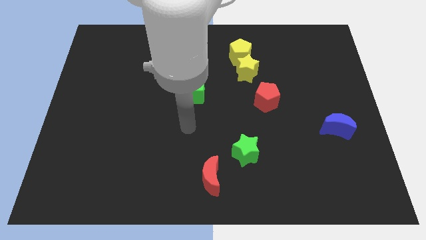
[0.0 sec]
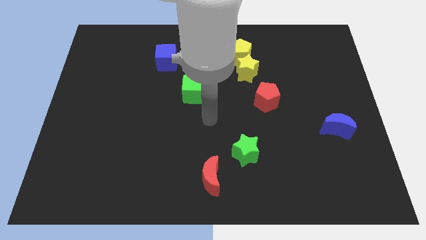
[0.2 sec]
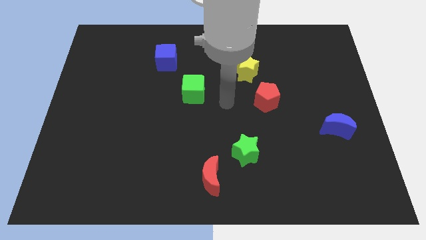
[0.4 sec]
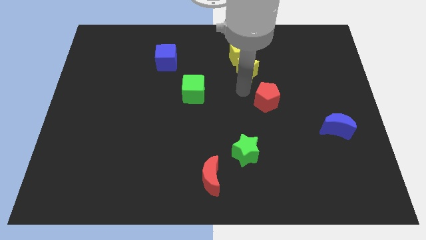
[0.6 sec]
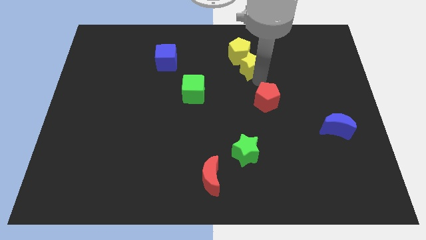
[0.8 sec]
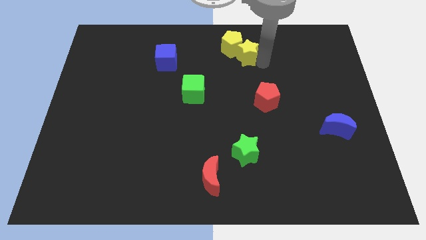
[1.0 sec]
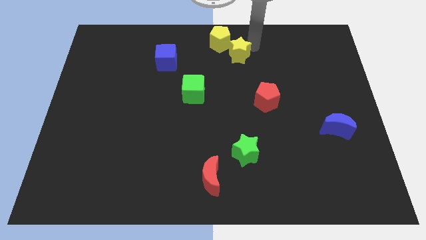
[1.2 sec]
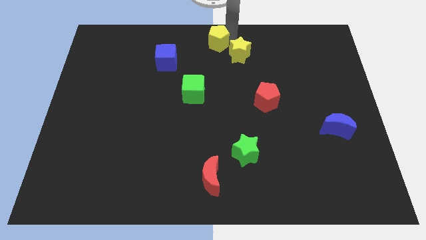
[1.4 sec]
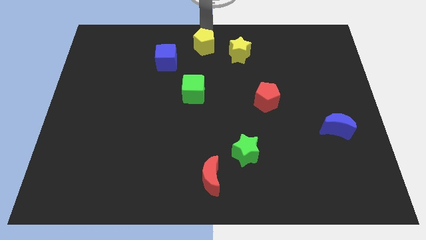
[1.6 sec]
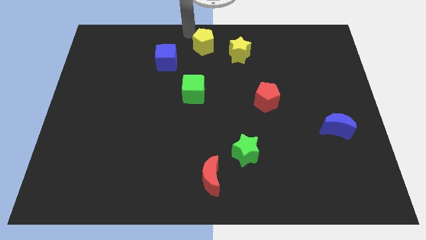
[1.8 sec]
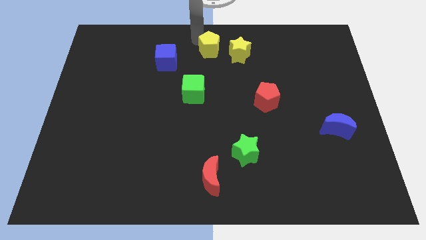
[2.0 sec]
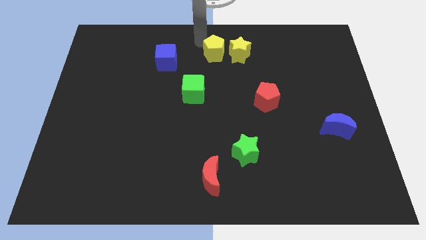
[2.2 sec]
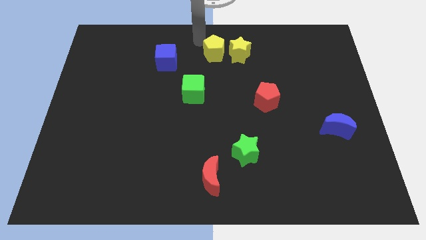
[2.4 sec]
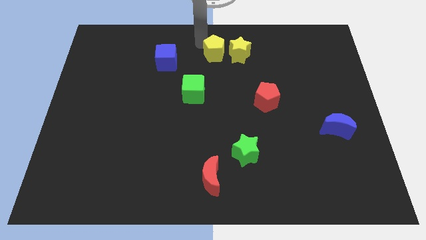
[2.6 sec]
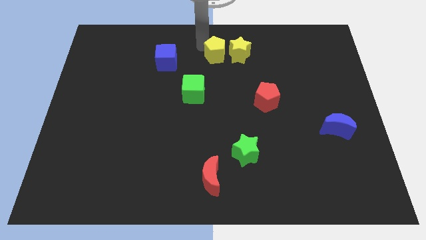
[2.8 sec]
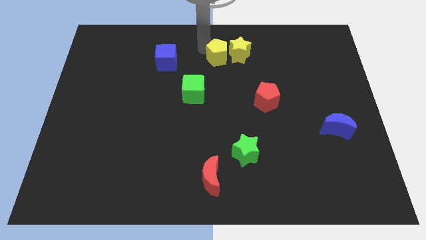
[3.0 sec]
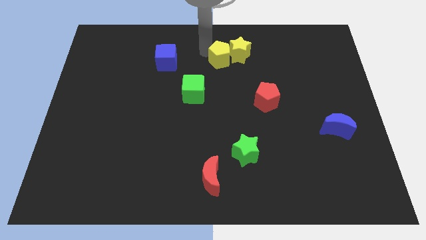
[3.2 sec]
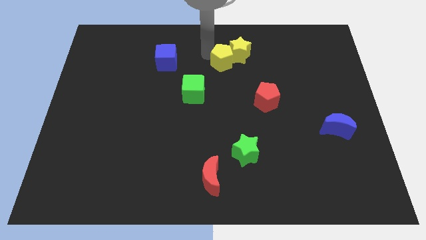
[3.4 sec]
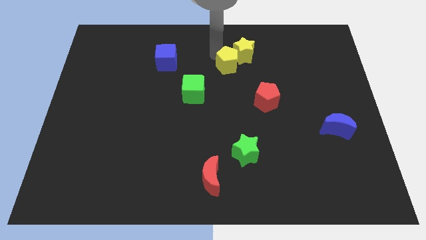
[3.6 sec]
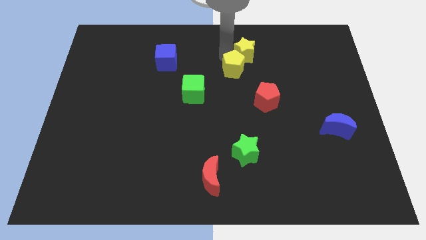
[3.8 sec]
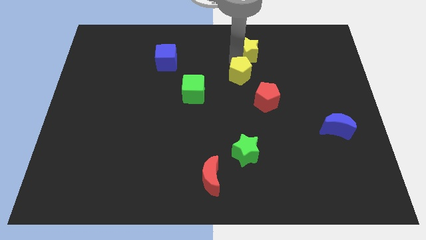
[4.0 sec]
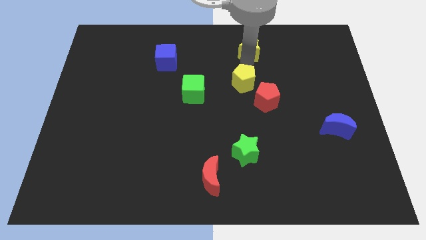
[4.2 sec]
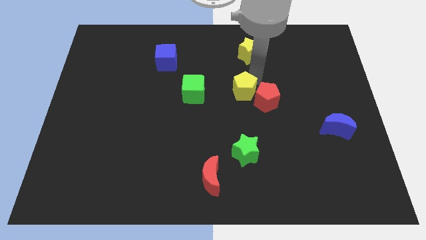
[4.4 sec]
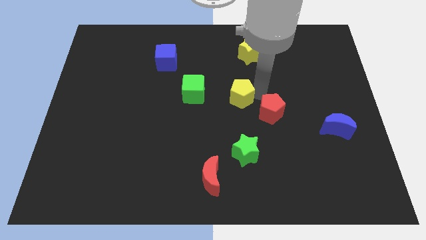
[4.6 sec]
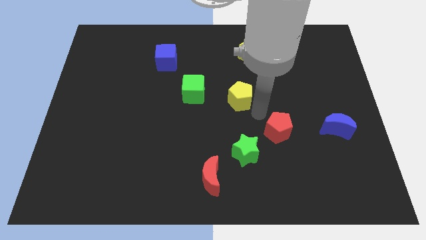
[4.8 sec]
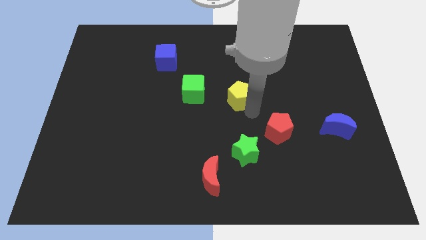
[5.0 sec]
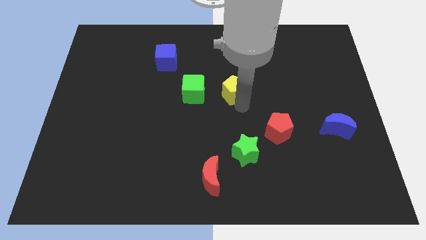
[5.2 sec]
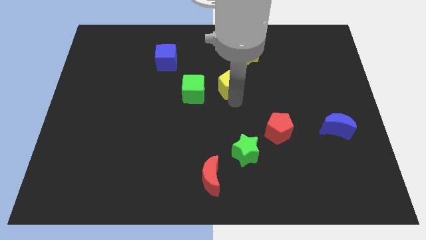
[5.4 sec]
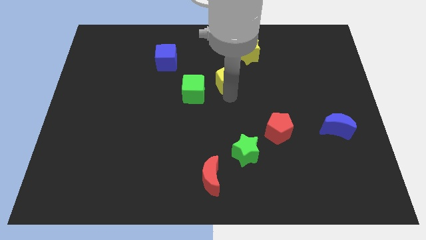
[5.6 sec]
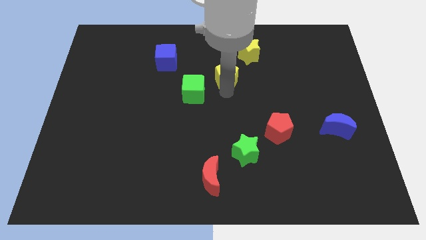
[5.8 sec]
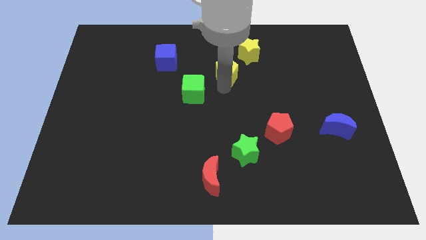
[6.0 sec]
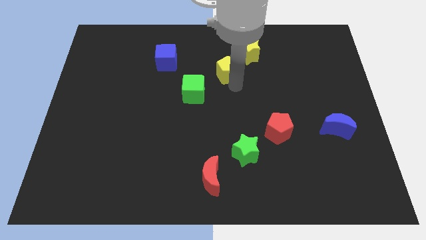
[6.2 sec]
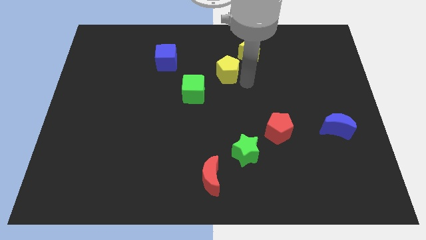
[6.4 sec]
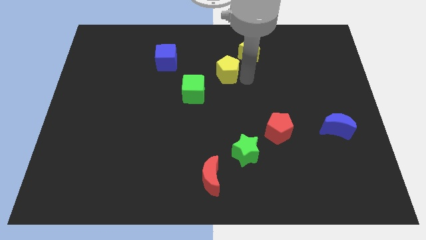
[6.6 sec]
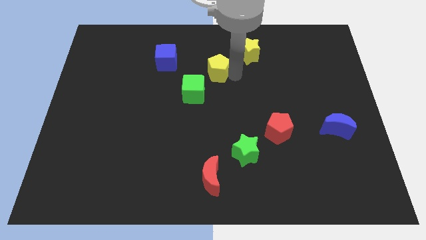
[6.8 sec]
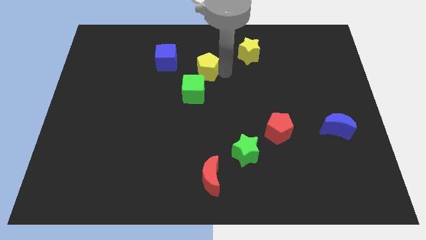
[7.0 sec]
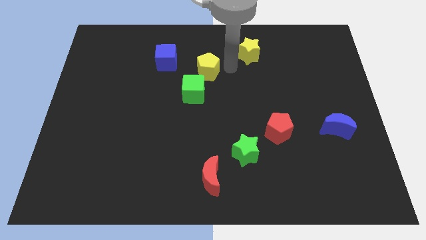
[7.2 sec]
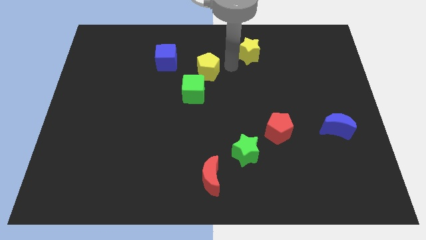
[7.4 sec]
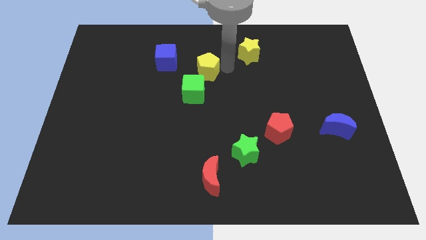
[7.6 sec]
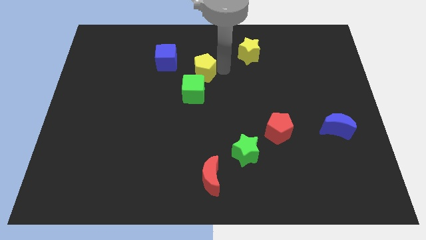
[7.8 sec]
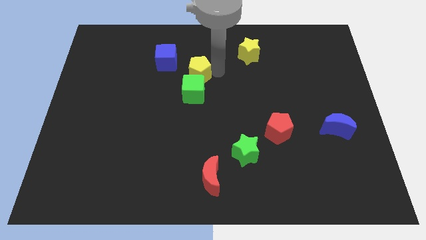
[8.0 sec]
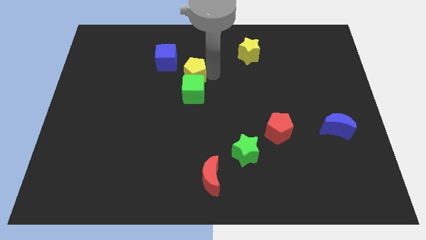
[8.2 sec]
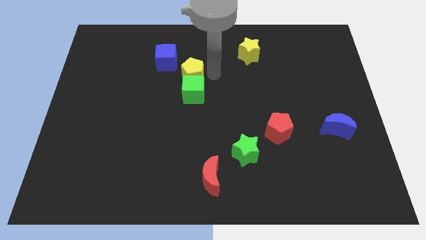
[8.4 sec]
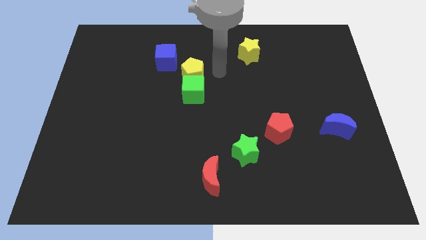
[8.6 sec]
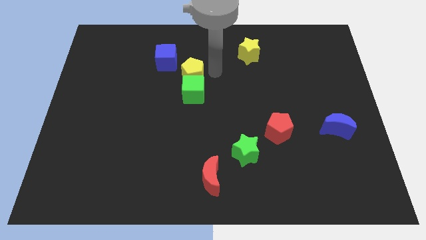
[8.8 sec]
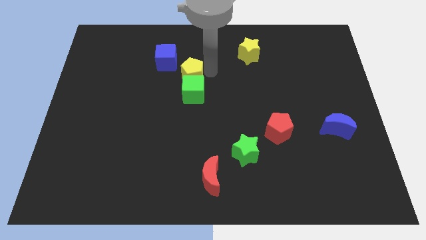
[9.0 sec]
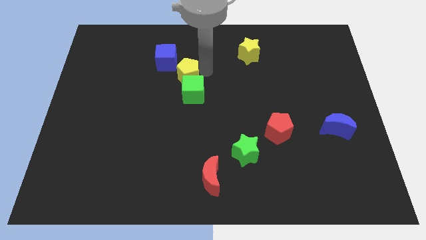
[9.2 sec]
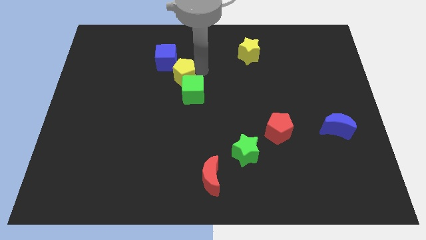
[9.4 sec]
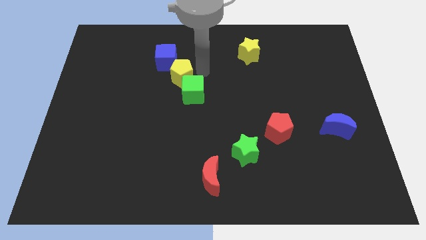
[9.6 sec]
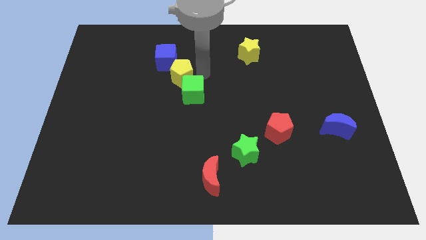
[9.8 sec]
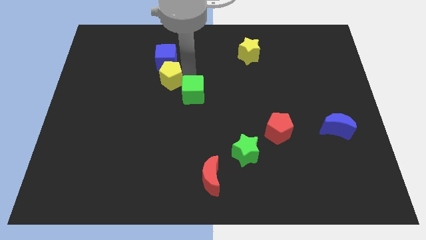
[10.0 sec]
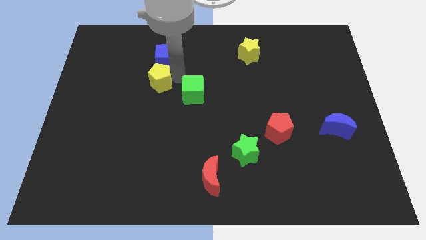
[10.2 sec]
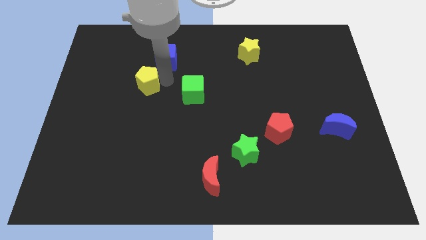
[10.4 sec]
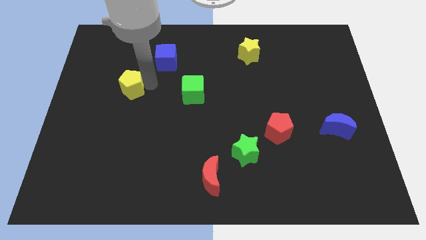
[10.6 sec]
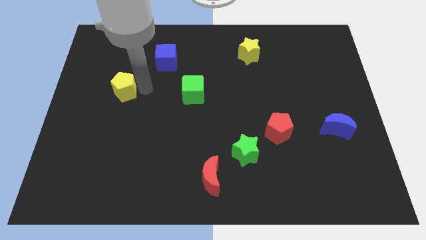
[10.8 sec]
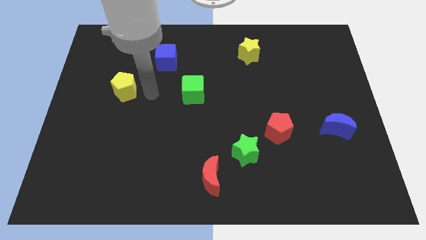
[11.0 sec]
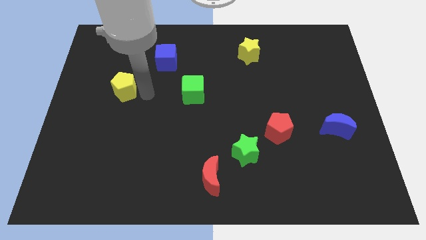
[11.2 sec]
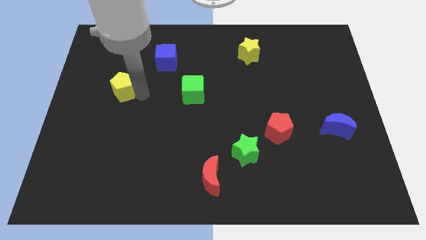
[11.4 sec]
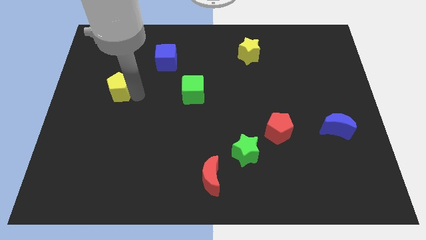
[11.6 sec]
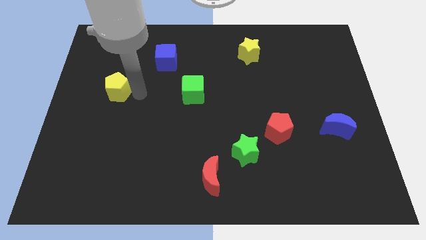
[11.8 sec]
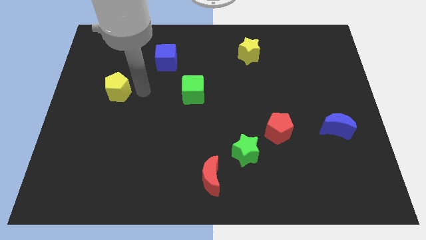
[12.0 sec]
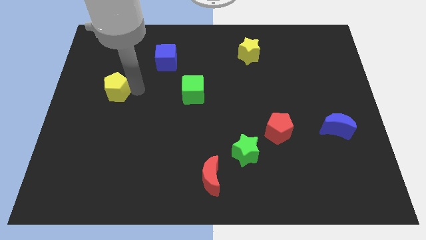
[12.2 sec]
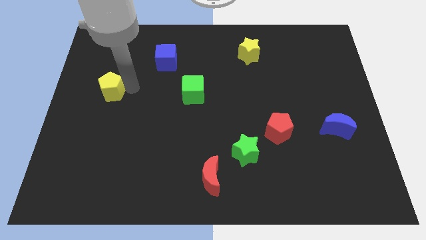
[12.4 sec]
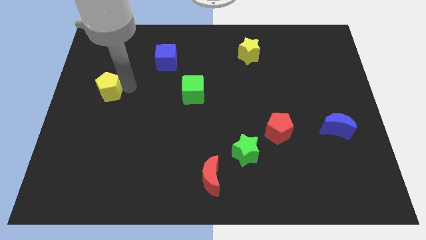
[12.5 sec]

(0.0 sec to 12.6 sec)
slide the yellow pentagon to the center left

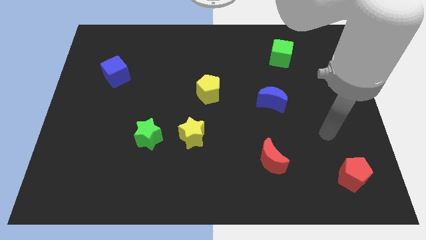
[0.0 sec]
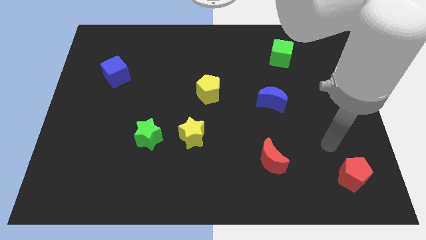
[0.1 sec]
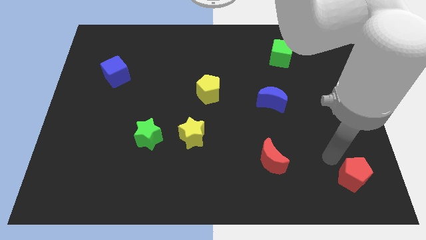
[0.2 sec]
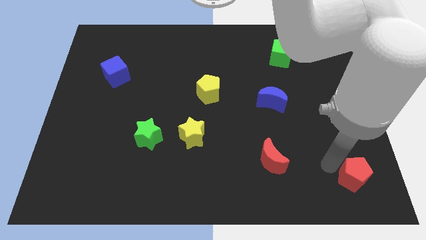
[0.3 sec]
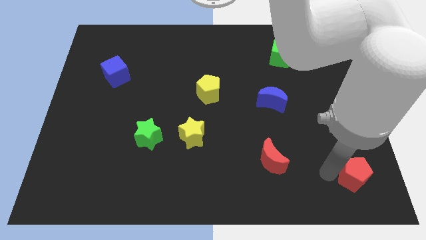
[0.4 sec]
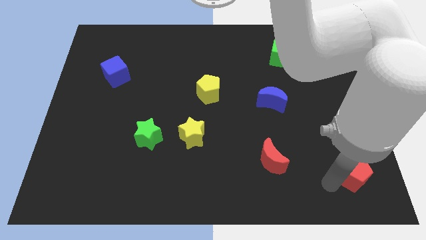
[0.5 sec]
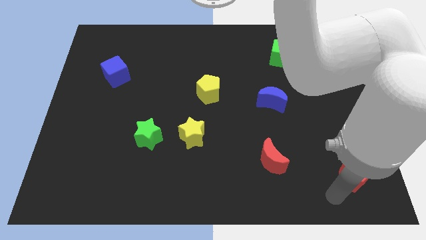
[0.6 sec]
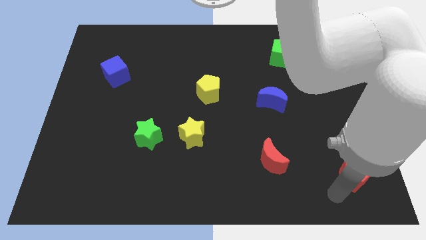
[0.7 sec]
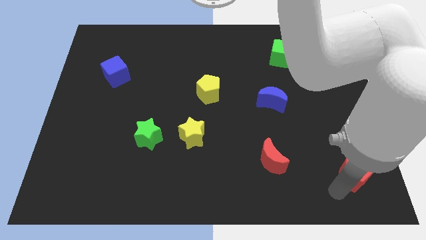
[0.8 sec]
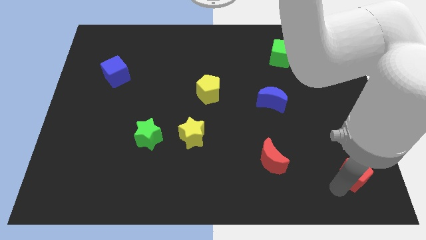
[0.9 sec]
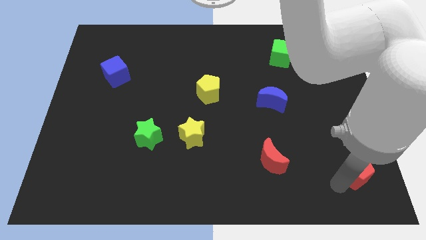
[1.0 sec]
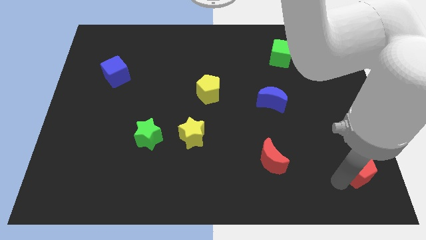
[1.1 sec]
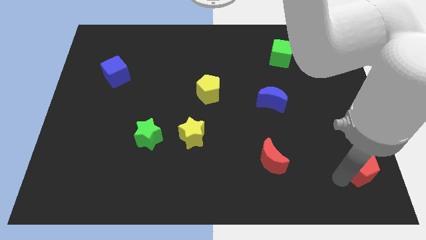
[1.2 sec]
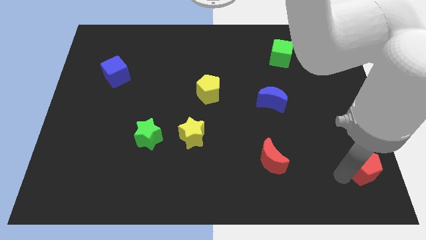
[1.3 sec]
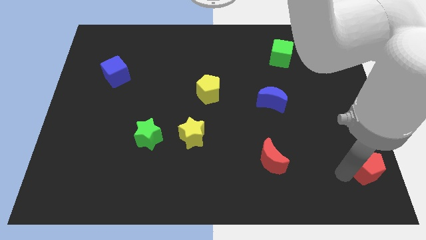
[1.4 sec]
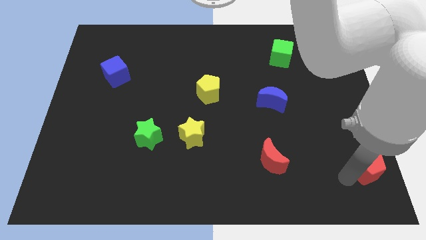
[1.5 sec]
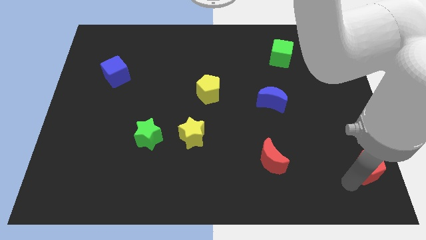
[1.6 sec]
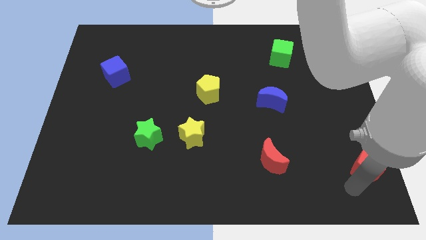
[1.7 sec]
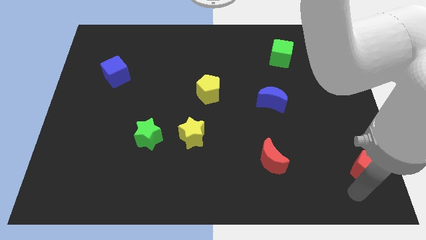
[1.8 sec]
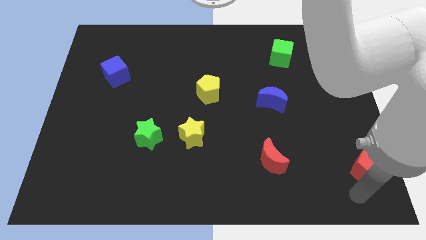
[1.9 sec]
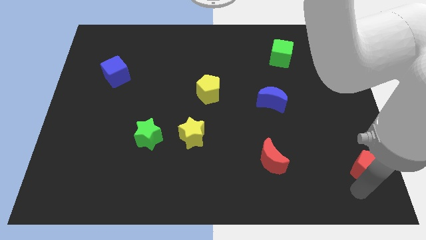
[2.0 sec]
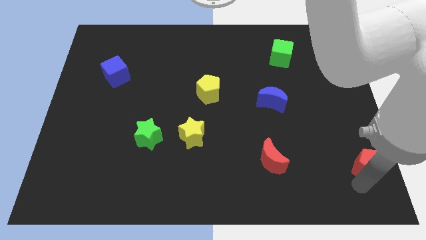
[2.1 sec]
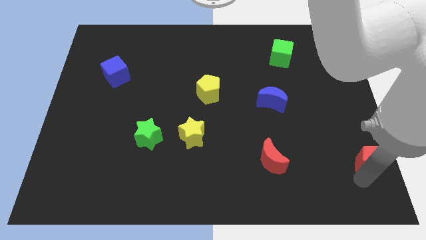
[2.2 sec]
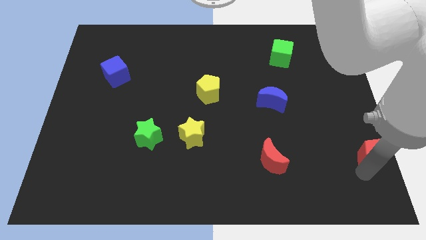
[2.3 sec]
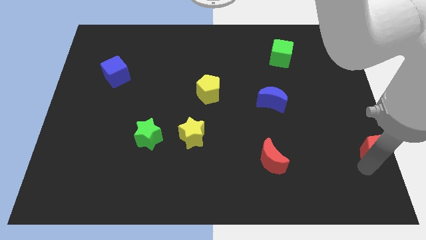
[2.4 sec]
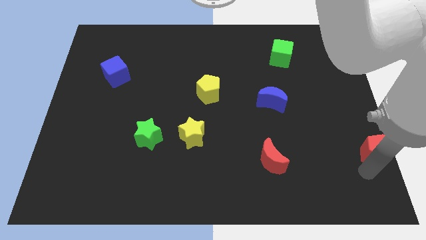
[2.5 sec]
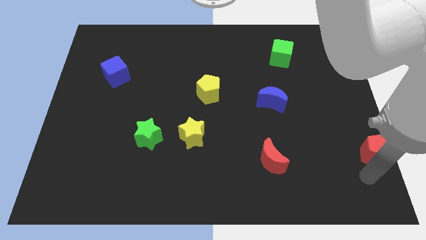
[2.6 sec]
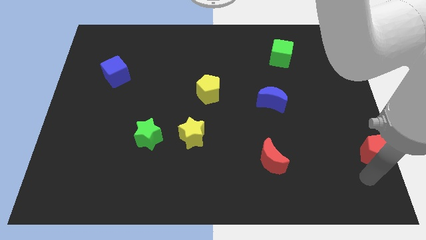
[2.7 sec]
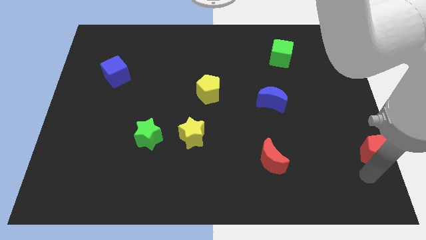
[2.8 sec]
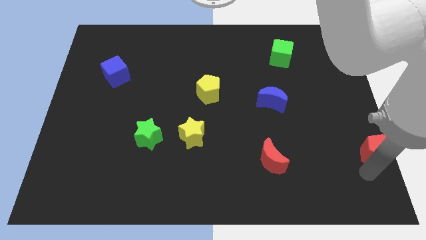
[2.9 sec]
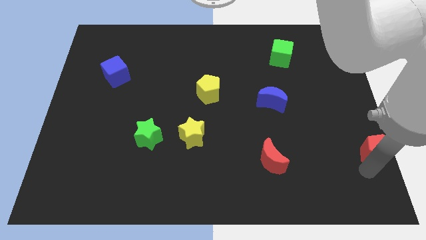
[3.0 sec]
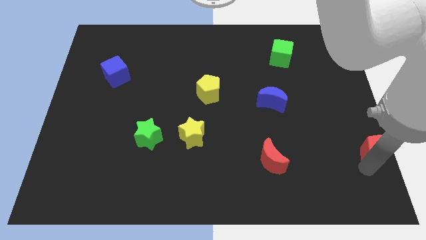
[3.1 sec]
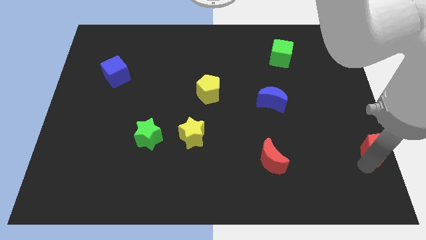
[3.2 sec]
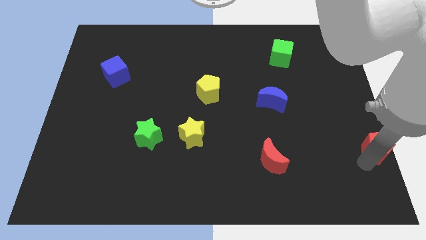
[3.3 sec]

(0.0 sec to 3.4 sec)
slide the red pentagon to the center right
